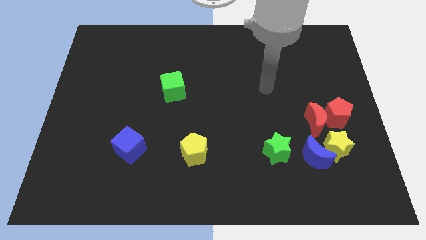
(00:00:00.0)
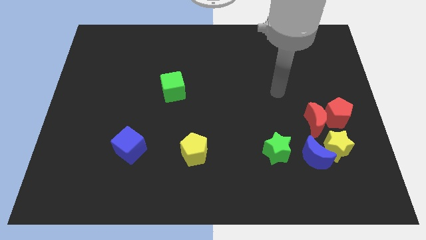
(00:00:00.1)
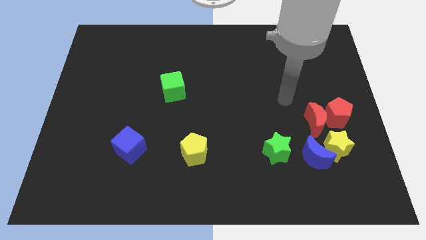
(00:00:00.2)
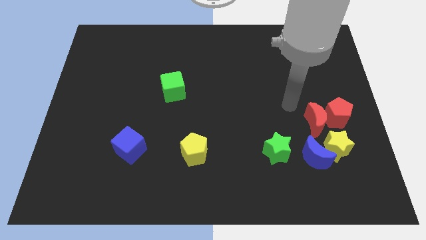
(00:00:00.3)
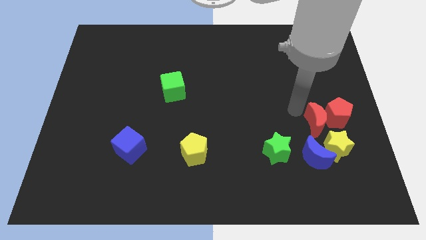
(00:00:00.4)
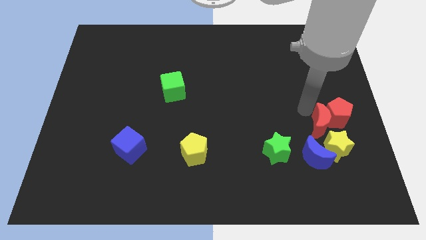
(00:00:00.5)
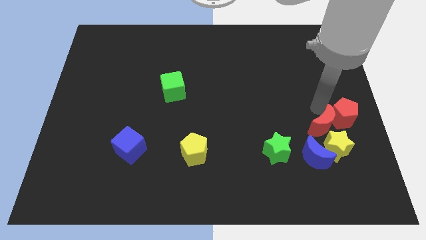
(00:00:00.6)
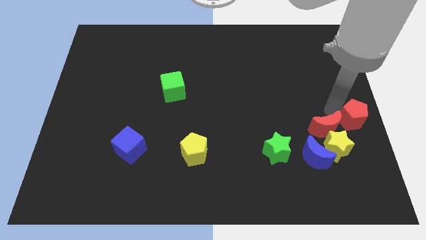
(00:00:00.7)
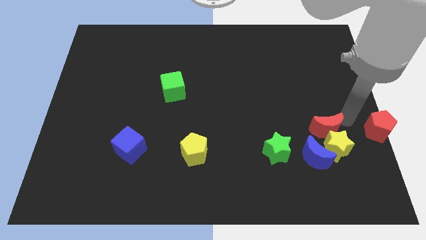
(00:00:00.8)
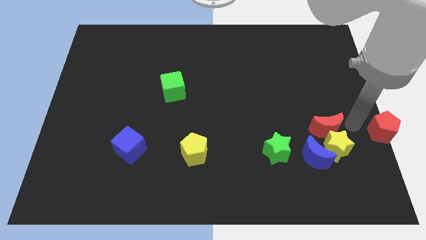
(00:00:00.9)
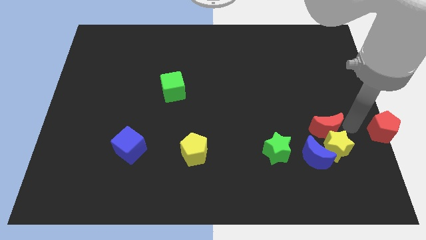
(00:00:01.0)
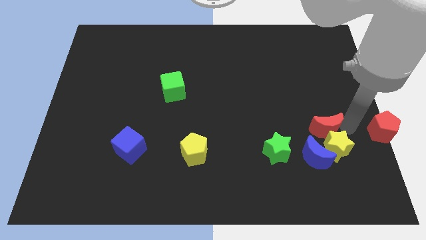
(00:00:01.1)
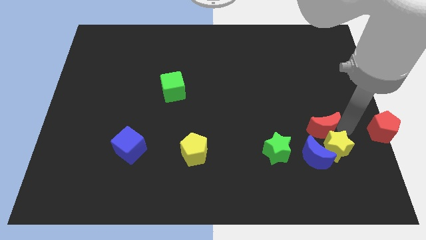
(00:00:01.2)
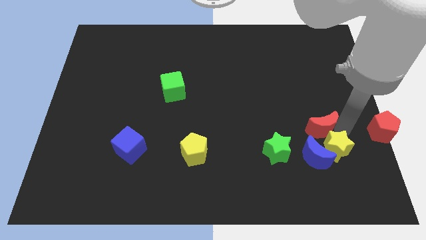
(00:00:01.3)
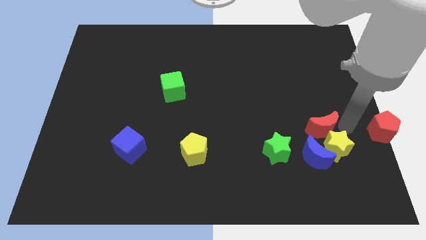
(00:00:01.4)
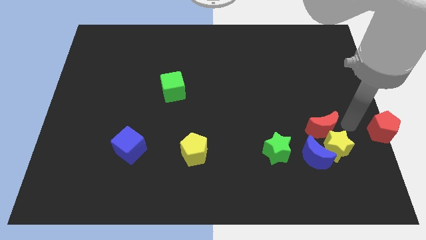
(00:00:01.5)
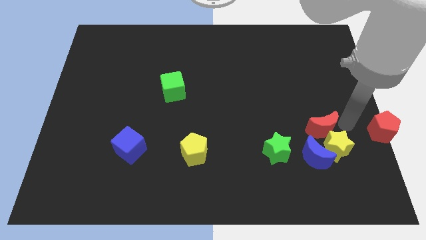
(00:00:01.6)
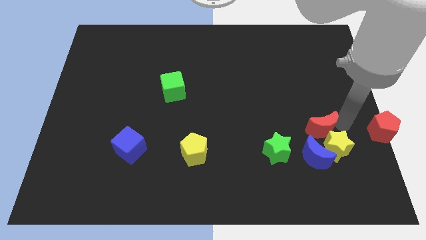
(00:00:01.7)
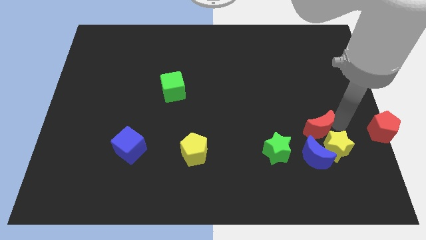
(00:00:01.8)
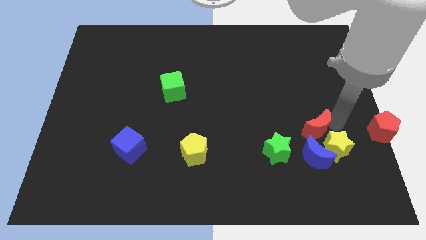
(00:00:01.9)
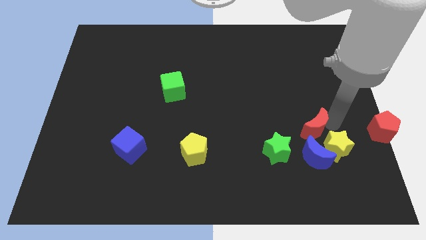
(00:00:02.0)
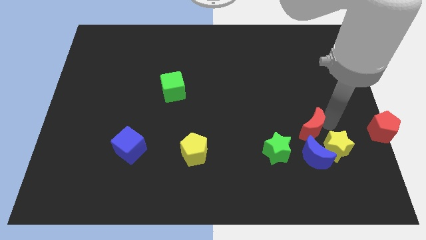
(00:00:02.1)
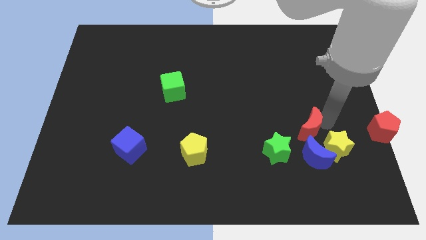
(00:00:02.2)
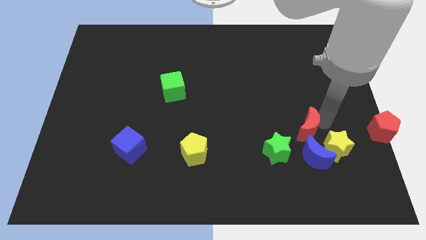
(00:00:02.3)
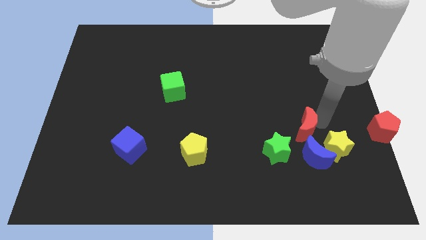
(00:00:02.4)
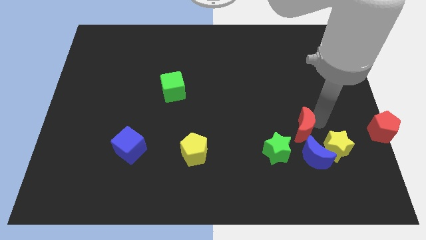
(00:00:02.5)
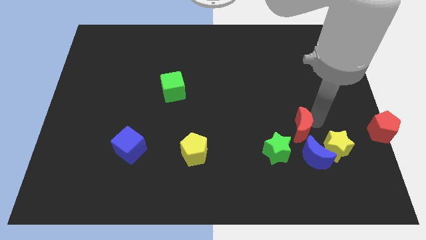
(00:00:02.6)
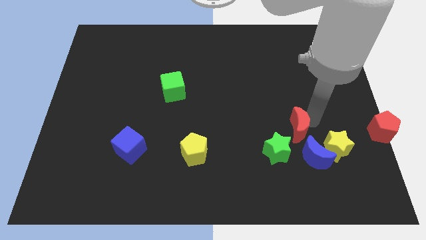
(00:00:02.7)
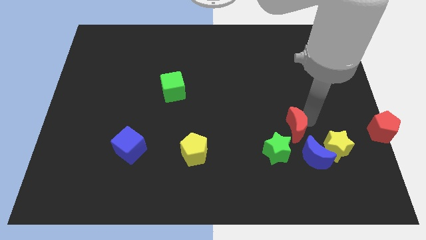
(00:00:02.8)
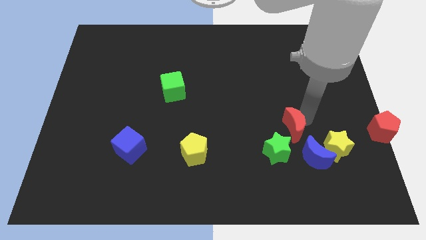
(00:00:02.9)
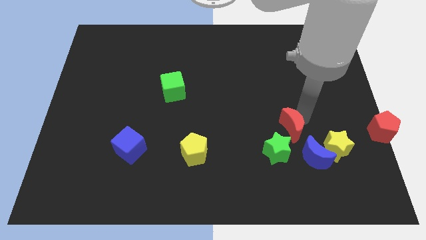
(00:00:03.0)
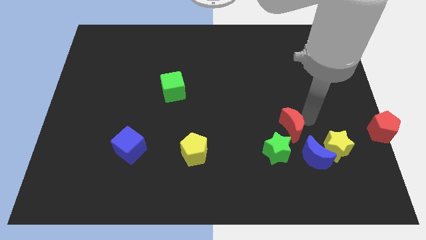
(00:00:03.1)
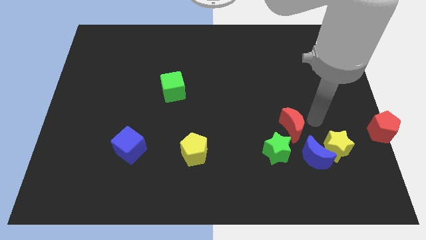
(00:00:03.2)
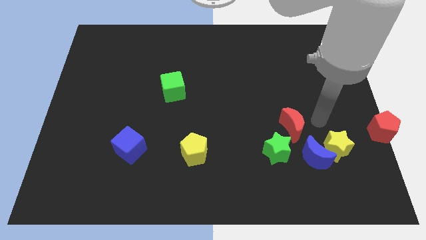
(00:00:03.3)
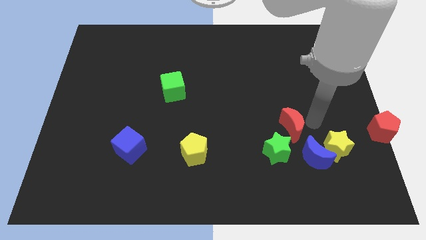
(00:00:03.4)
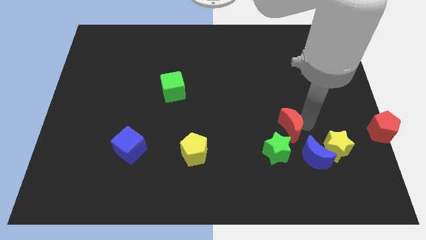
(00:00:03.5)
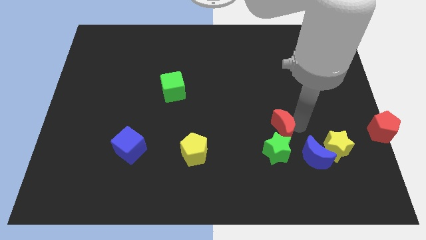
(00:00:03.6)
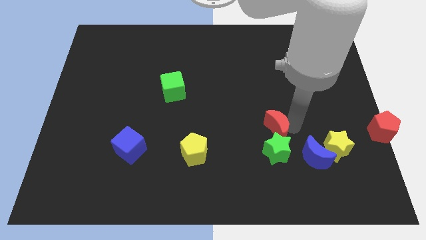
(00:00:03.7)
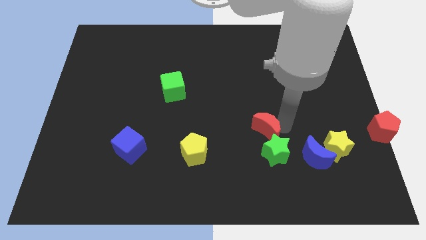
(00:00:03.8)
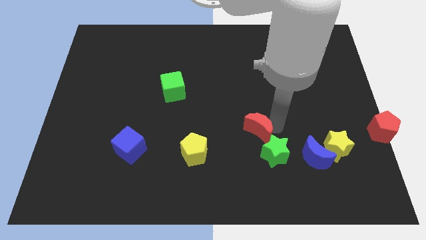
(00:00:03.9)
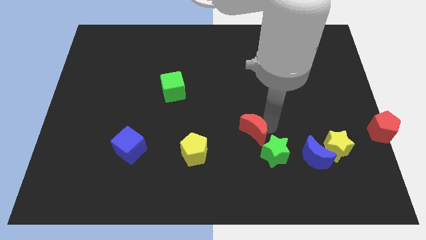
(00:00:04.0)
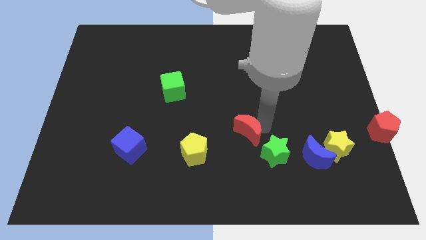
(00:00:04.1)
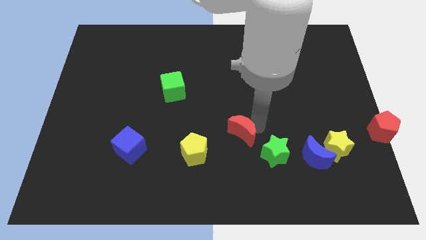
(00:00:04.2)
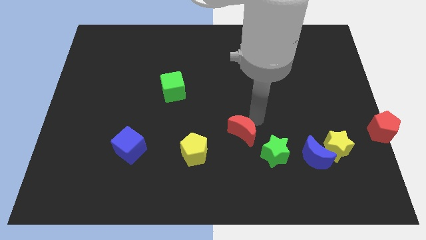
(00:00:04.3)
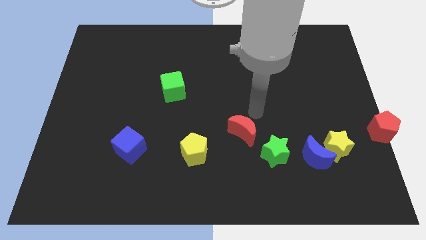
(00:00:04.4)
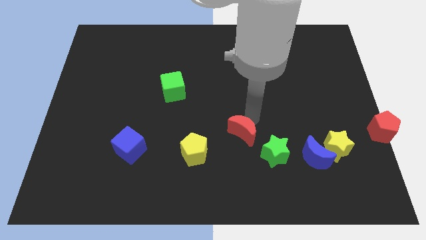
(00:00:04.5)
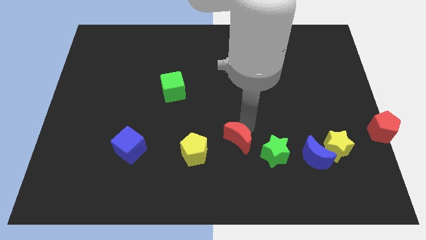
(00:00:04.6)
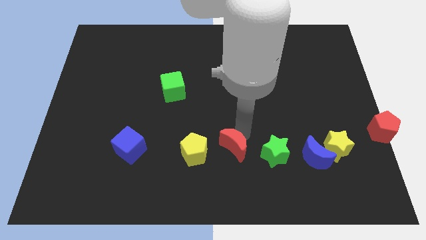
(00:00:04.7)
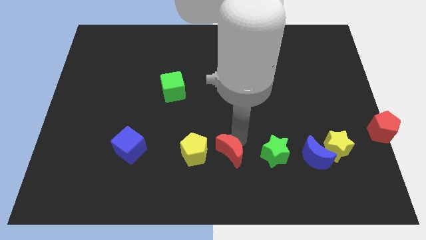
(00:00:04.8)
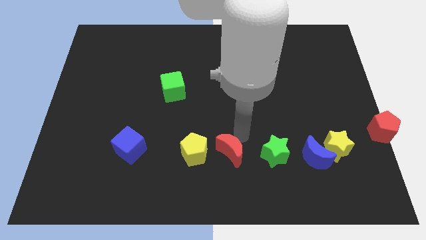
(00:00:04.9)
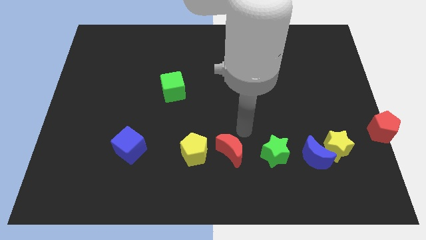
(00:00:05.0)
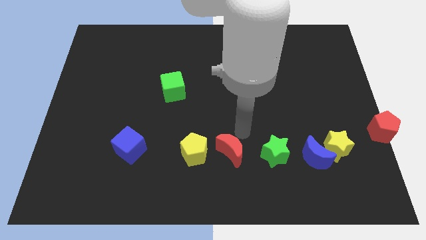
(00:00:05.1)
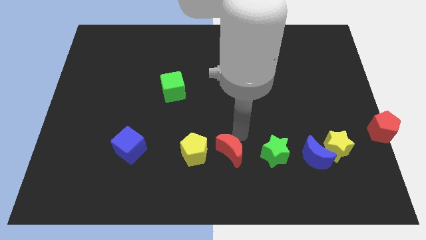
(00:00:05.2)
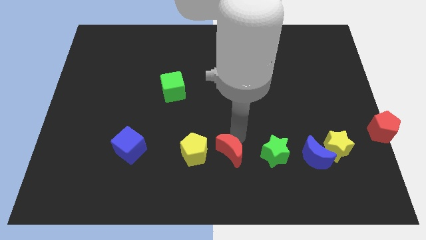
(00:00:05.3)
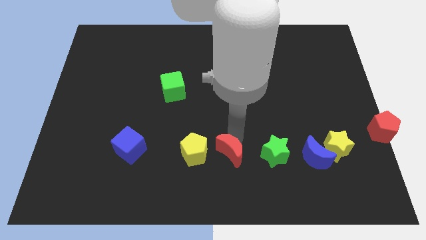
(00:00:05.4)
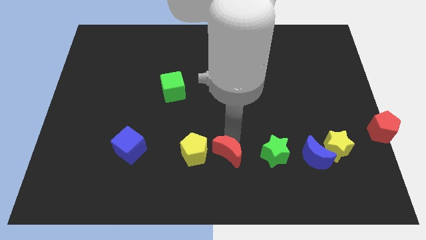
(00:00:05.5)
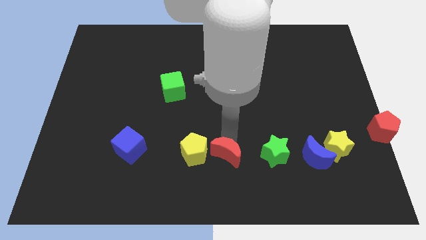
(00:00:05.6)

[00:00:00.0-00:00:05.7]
slide the red moon diagonally down and to the right of the yellow pentagon
